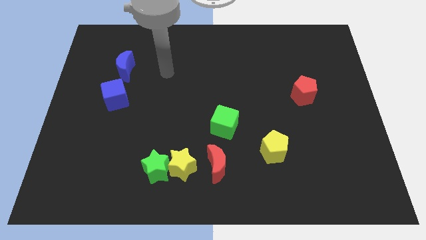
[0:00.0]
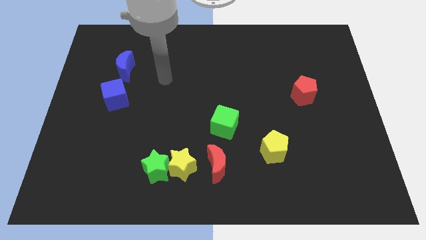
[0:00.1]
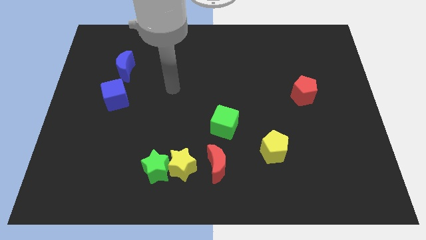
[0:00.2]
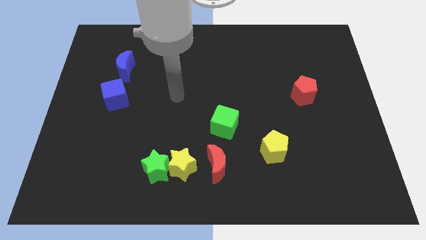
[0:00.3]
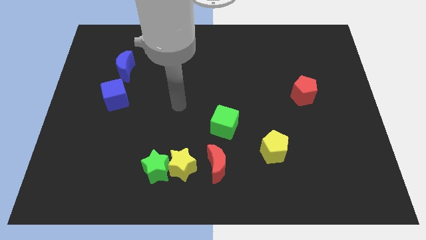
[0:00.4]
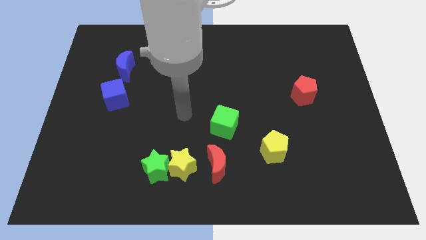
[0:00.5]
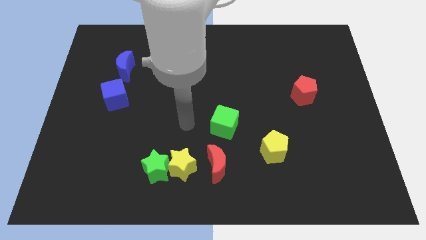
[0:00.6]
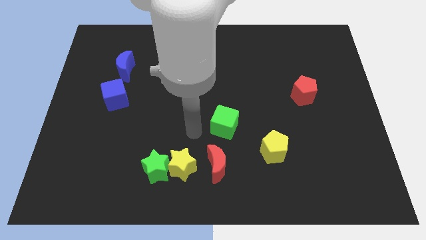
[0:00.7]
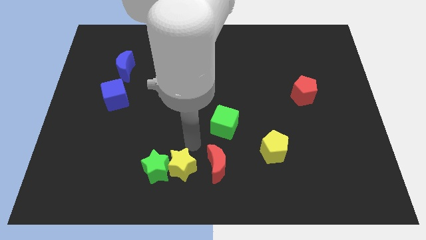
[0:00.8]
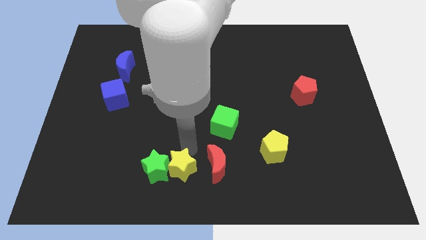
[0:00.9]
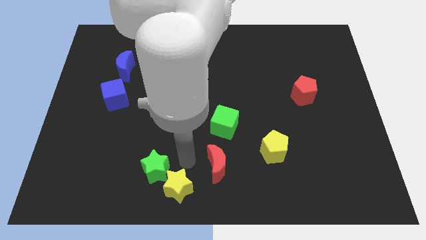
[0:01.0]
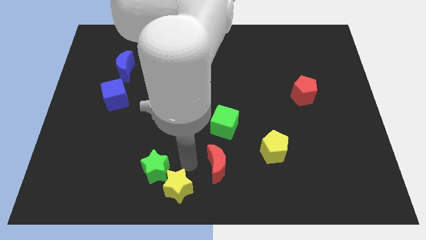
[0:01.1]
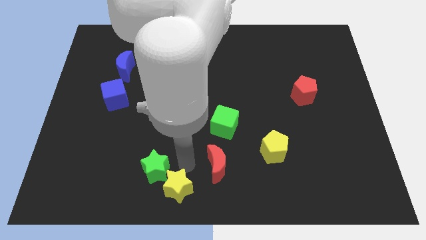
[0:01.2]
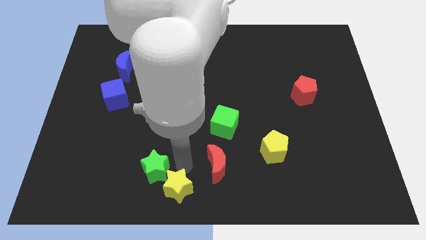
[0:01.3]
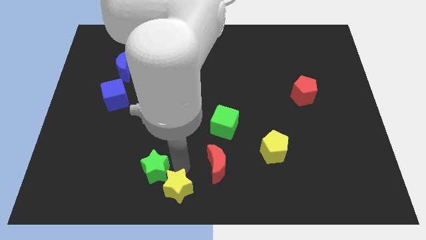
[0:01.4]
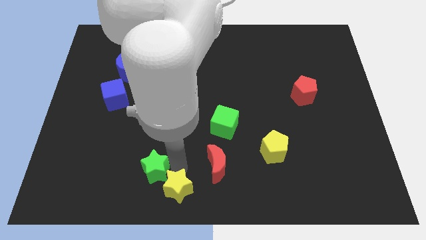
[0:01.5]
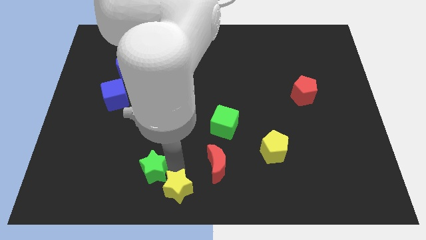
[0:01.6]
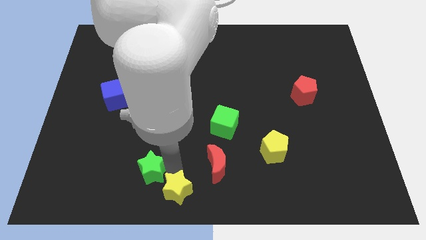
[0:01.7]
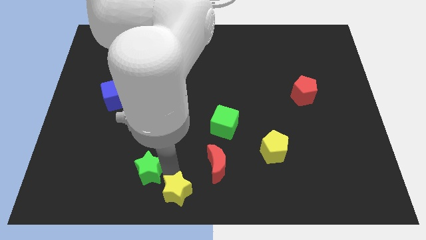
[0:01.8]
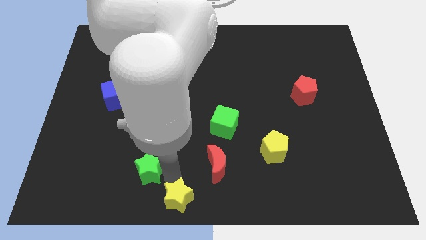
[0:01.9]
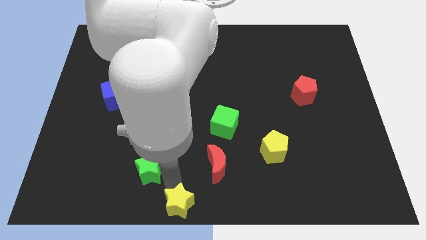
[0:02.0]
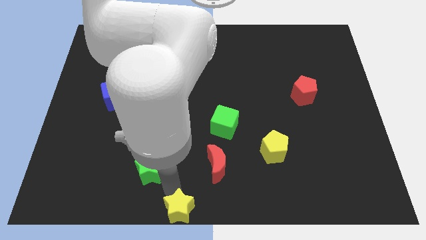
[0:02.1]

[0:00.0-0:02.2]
separate the green star from the yellow star

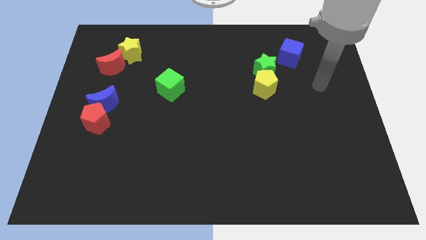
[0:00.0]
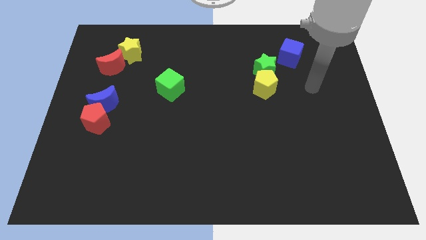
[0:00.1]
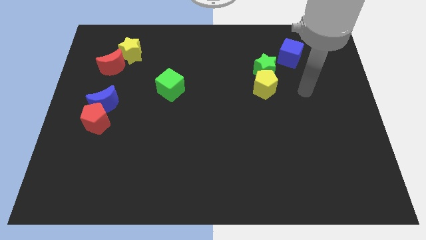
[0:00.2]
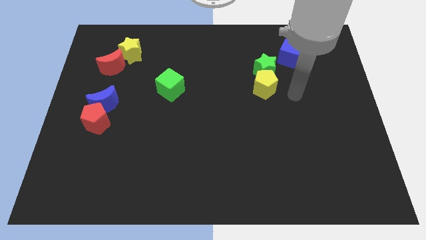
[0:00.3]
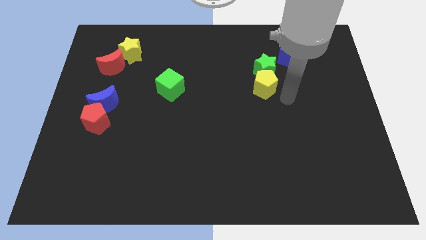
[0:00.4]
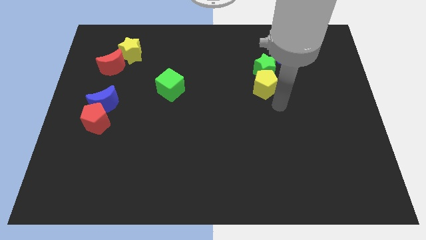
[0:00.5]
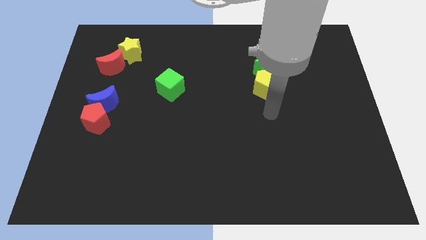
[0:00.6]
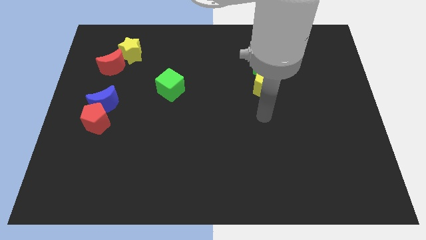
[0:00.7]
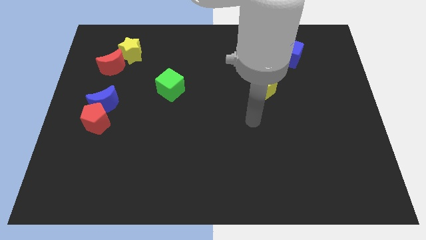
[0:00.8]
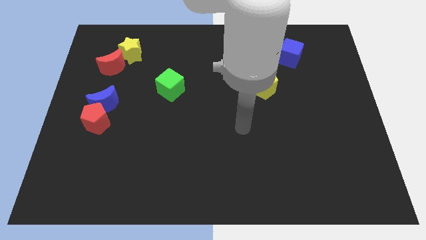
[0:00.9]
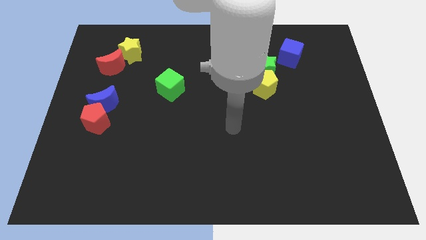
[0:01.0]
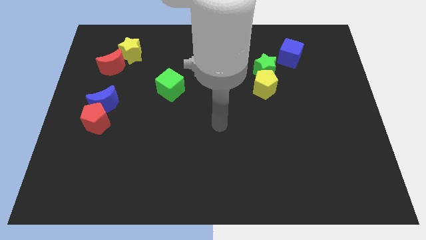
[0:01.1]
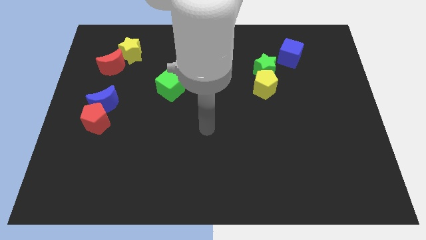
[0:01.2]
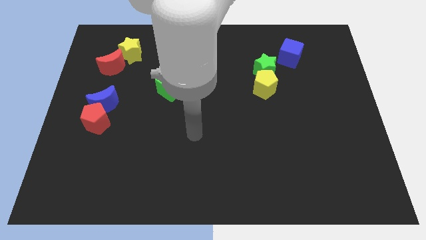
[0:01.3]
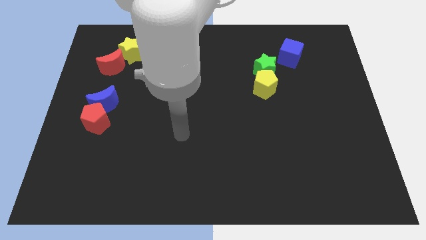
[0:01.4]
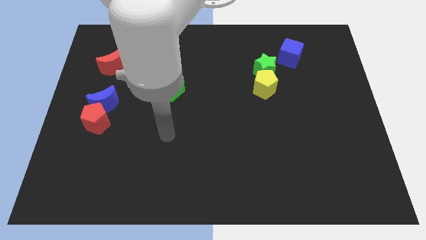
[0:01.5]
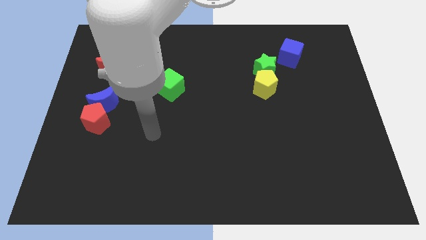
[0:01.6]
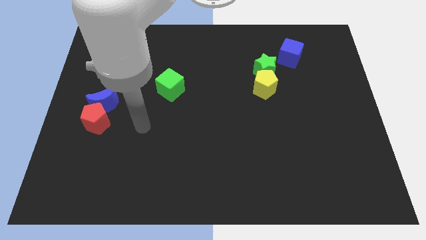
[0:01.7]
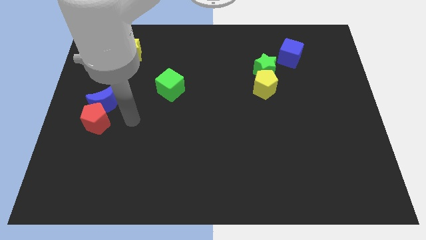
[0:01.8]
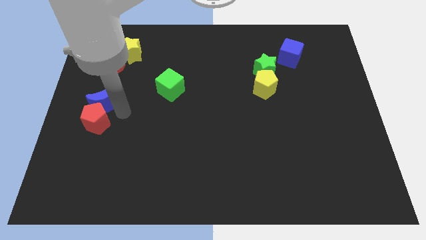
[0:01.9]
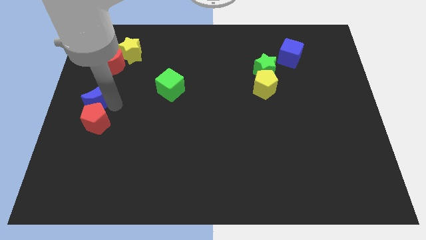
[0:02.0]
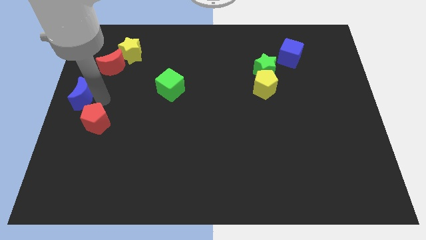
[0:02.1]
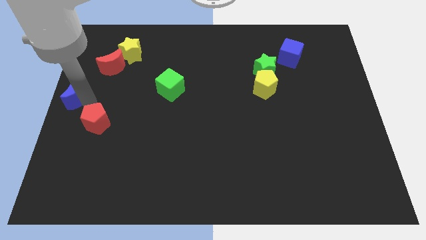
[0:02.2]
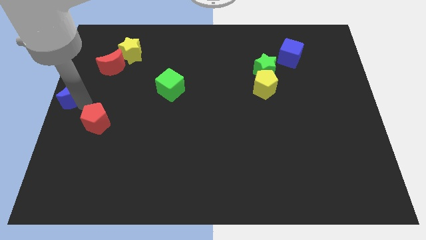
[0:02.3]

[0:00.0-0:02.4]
pull the red pentagon apart from the blue moon

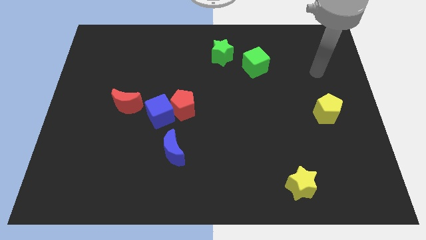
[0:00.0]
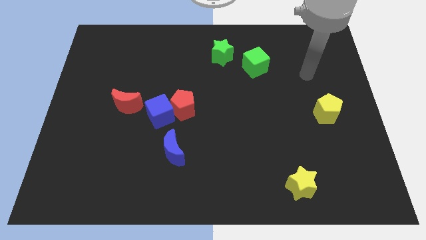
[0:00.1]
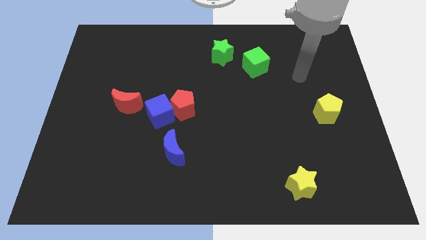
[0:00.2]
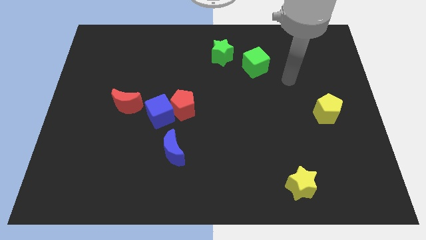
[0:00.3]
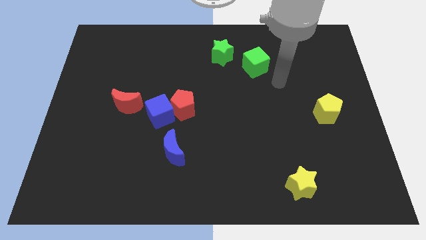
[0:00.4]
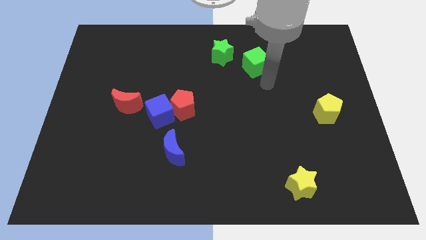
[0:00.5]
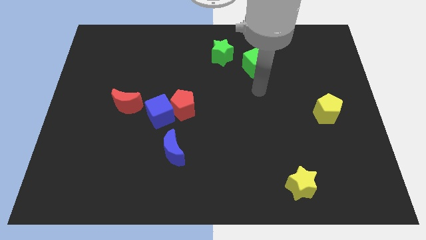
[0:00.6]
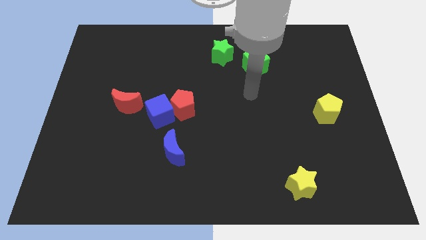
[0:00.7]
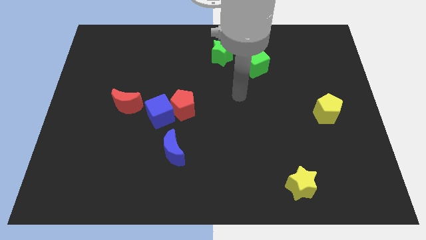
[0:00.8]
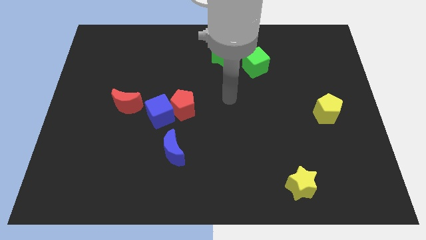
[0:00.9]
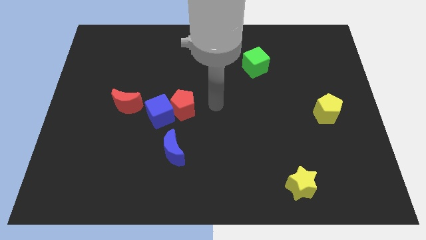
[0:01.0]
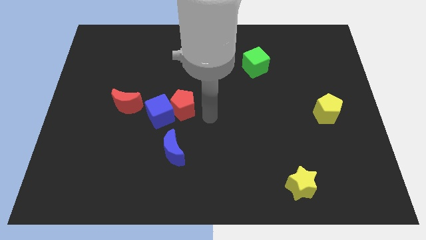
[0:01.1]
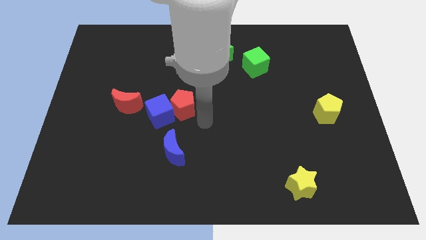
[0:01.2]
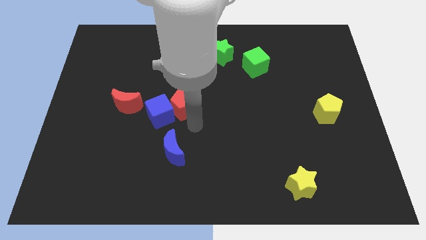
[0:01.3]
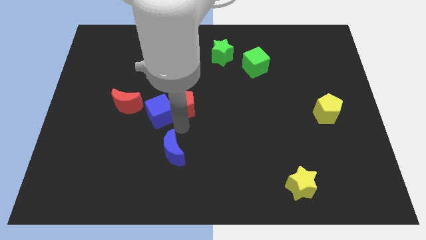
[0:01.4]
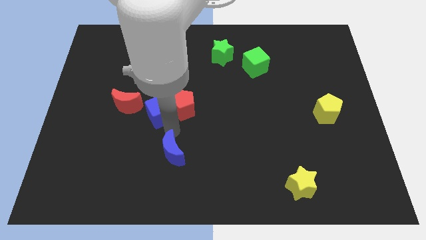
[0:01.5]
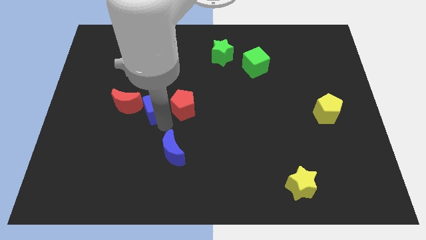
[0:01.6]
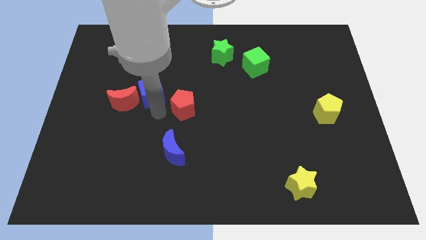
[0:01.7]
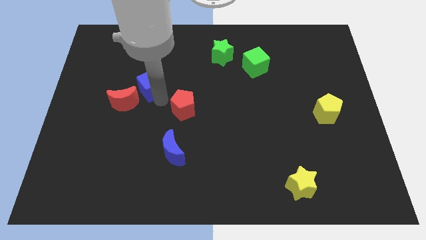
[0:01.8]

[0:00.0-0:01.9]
move the red pentagon away from the blue cube

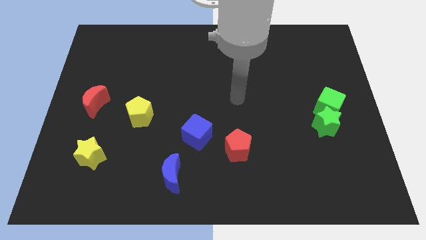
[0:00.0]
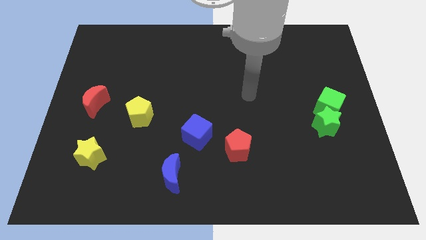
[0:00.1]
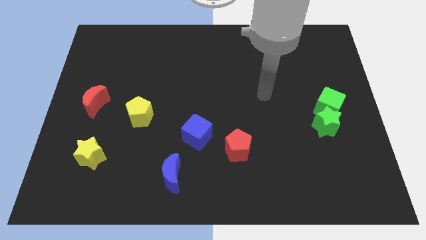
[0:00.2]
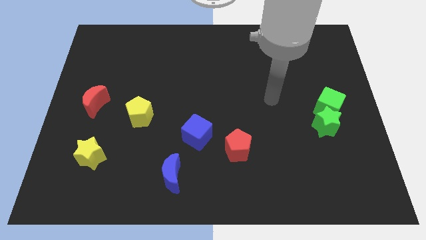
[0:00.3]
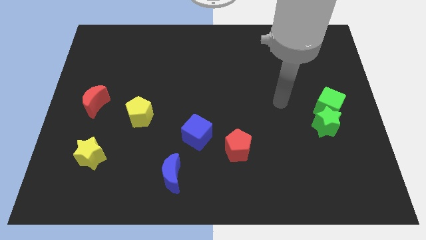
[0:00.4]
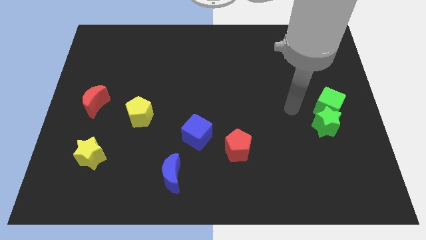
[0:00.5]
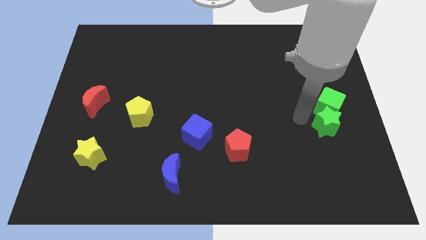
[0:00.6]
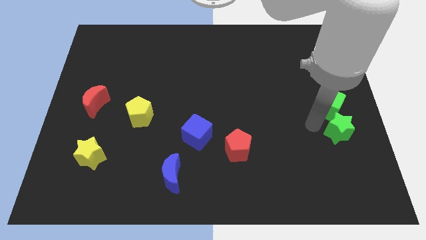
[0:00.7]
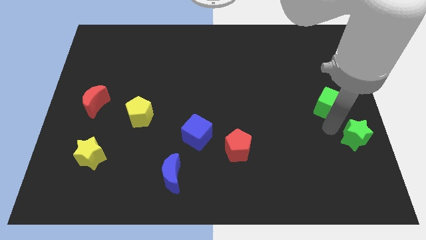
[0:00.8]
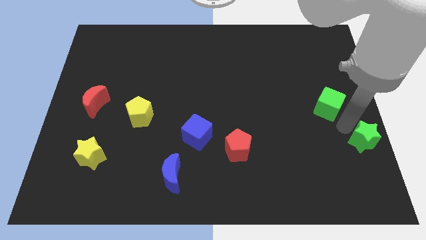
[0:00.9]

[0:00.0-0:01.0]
separate the green cube from the green star

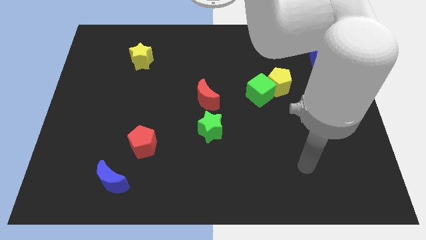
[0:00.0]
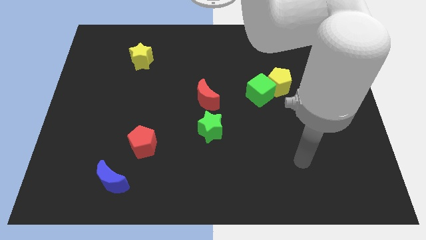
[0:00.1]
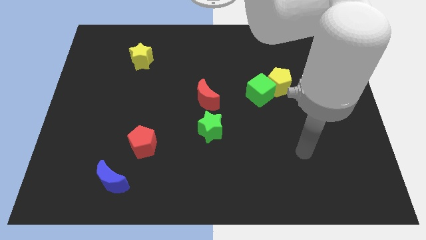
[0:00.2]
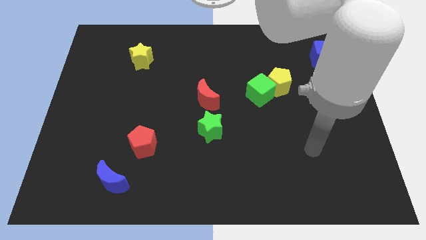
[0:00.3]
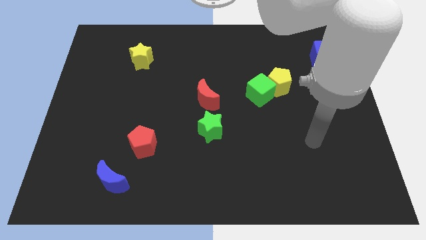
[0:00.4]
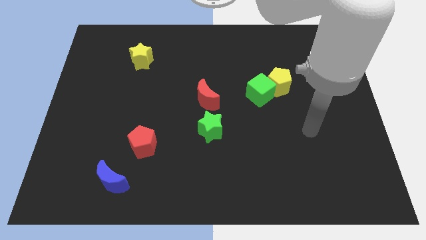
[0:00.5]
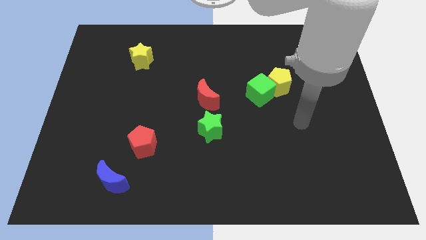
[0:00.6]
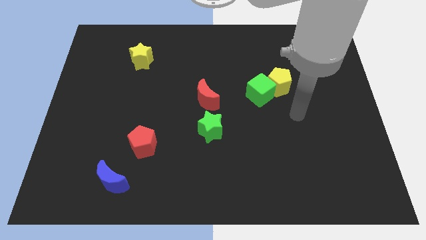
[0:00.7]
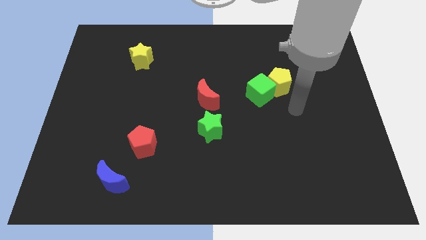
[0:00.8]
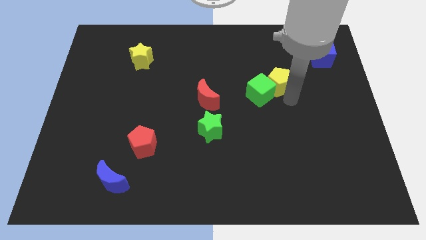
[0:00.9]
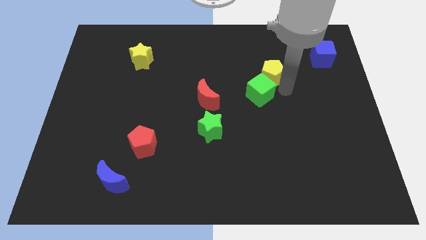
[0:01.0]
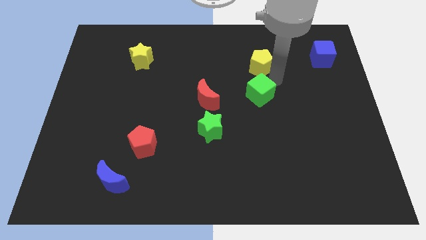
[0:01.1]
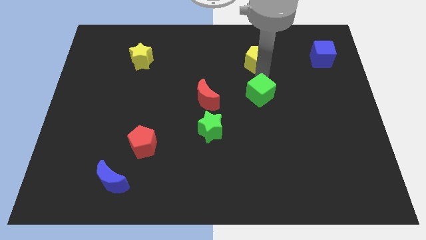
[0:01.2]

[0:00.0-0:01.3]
pull the green cube apart from the yellow pentagon

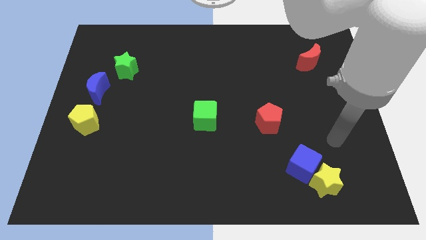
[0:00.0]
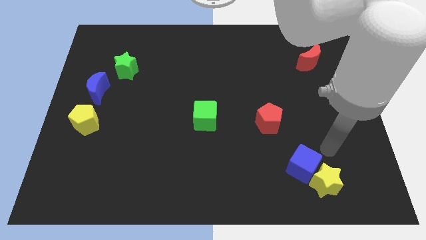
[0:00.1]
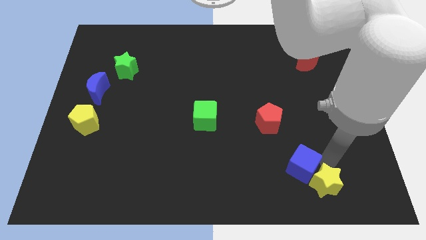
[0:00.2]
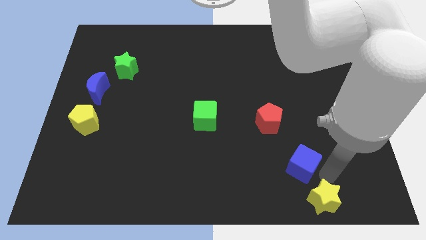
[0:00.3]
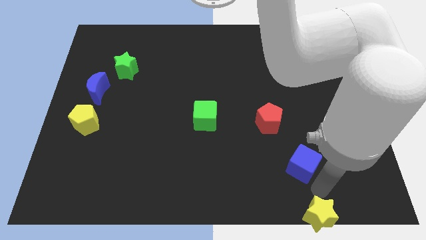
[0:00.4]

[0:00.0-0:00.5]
move the blue cube away from the yellow star
